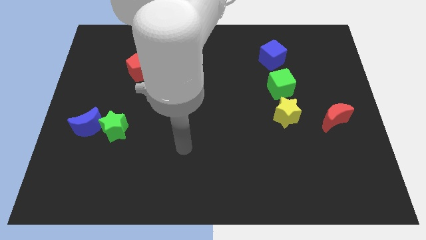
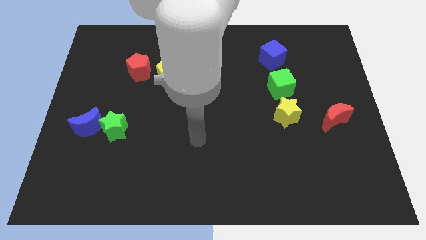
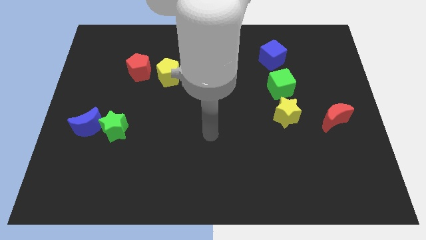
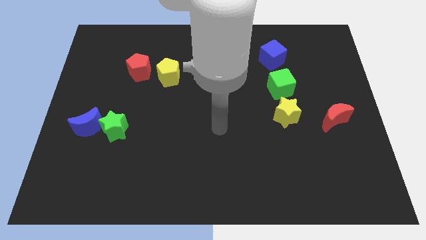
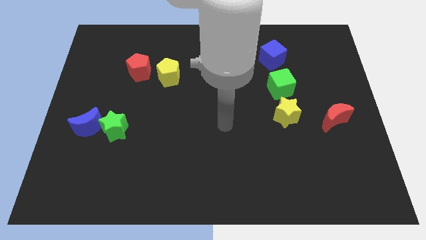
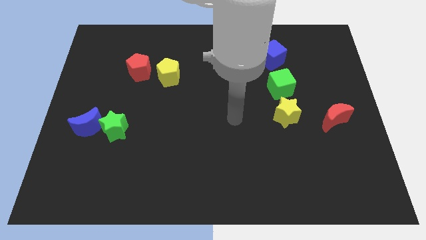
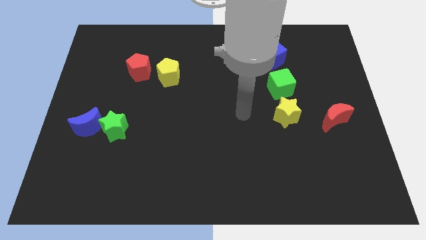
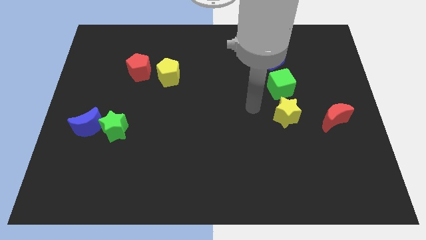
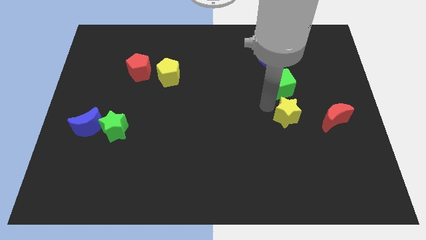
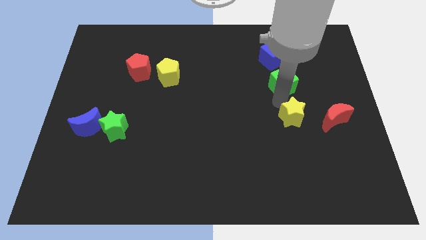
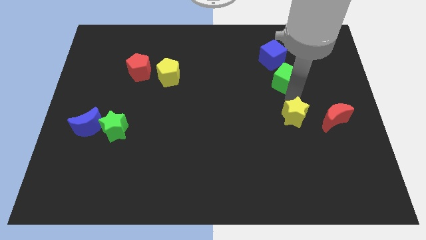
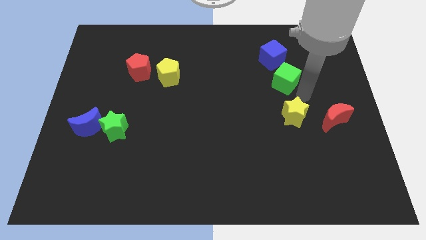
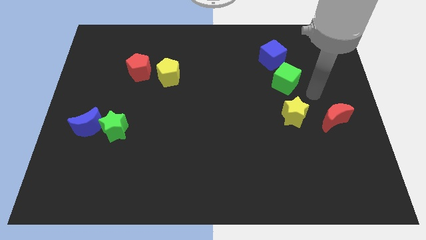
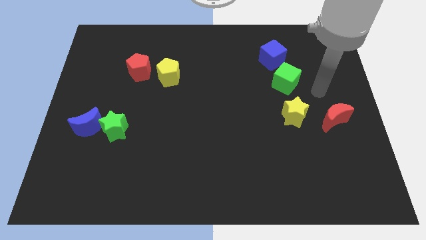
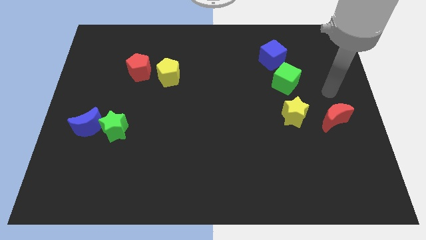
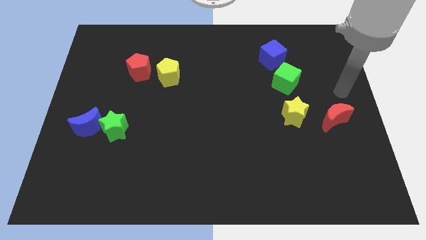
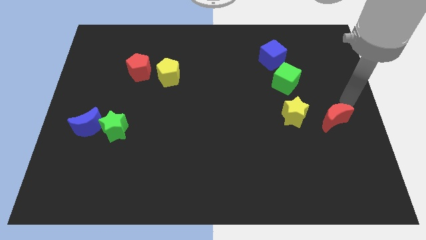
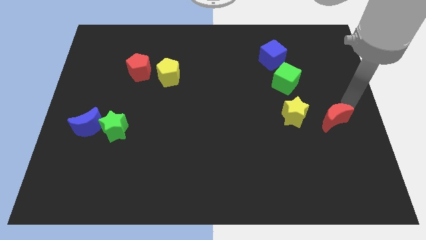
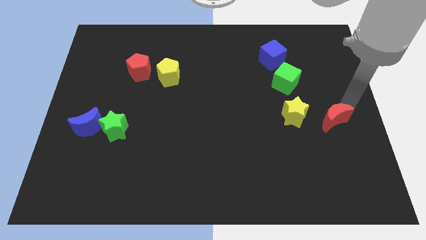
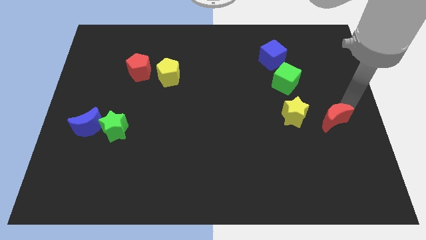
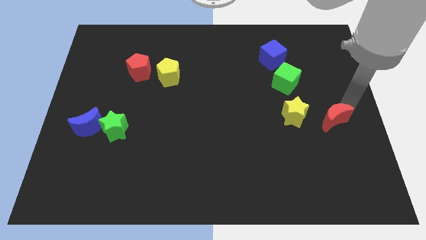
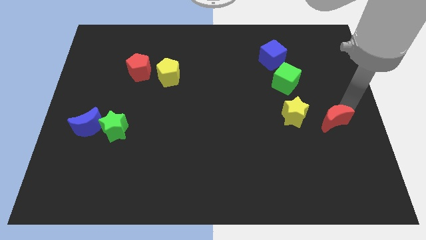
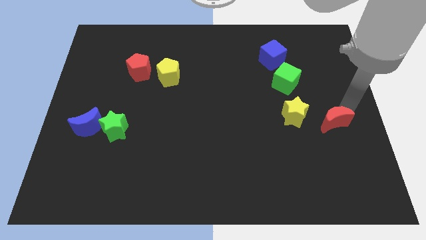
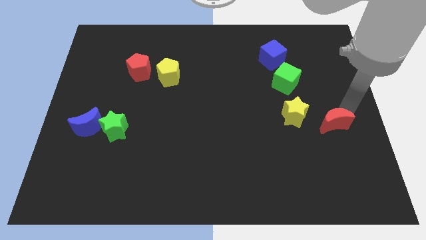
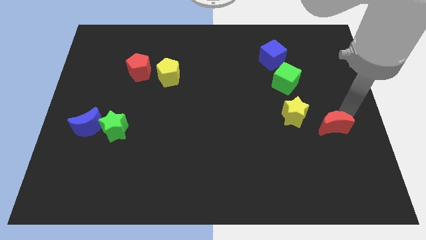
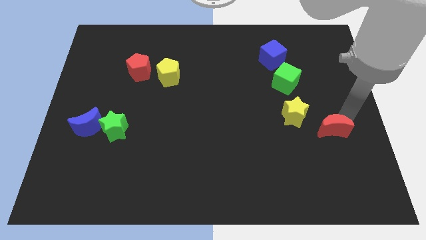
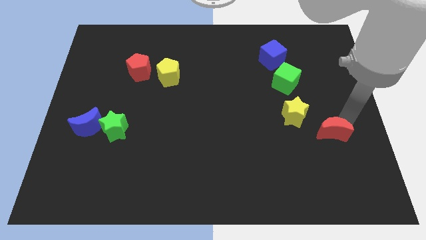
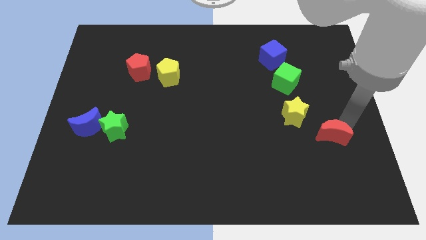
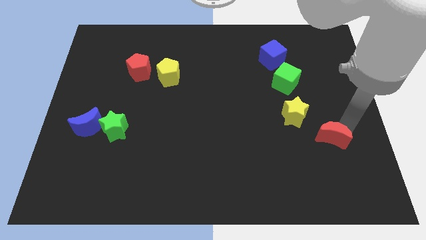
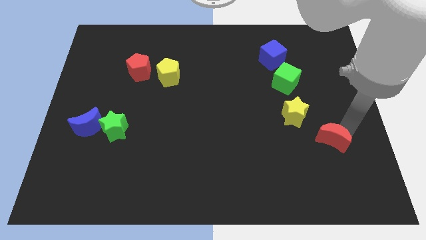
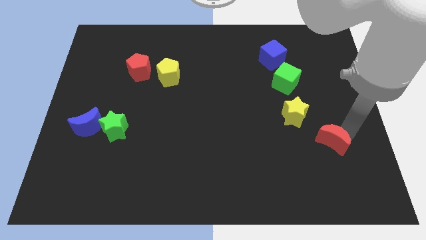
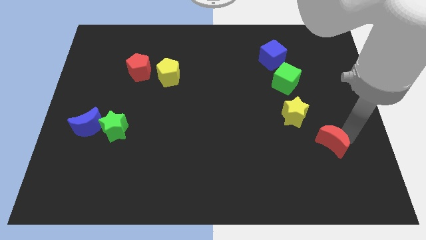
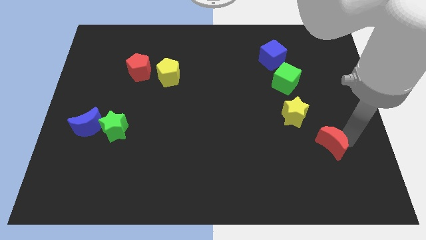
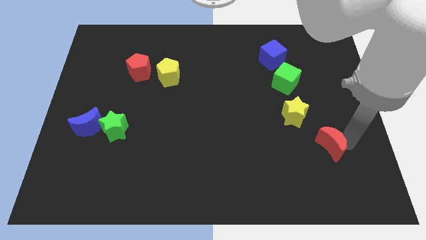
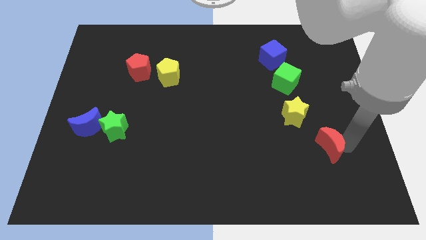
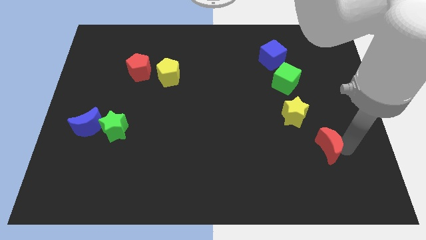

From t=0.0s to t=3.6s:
slightly push the red moon downwards and to the left

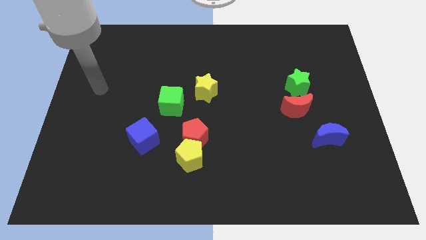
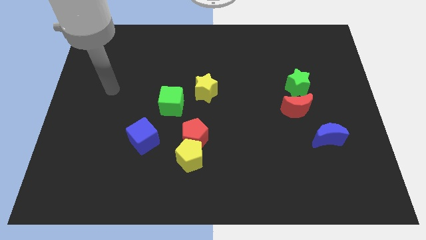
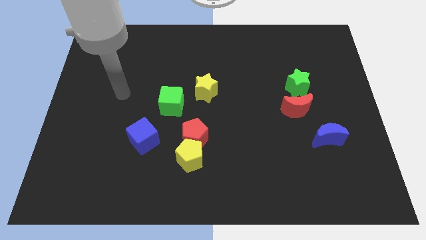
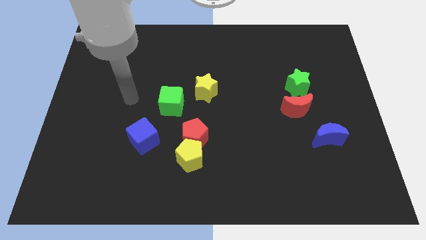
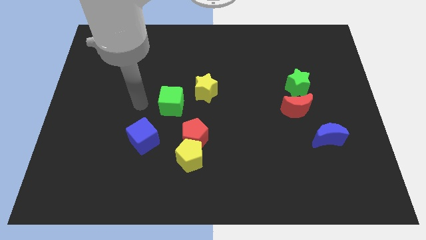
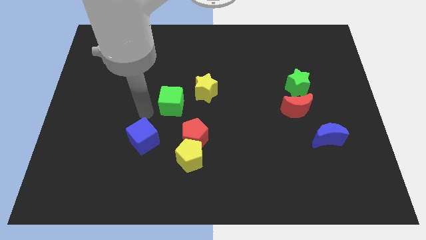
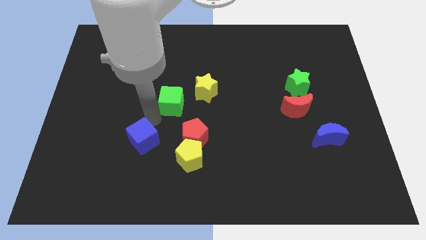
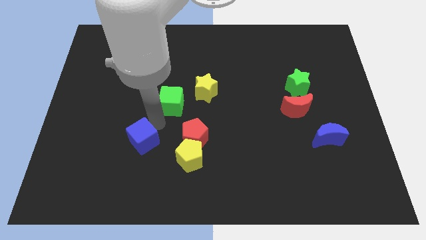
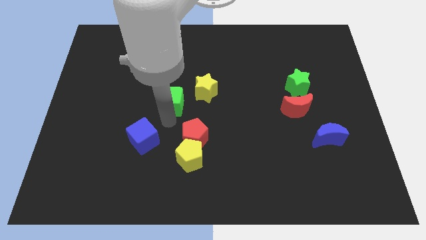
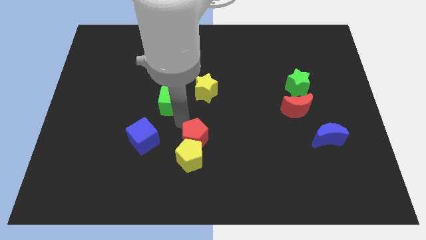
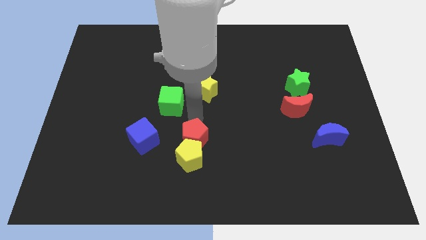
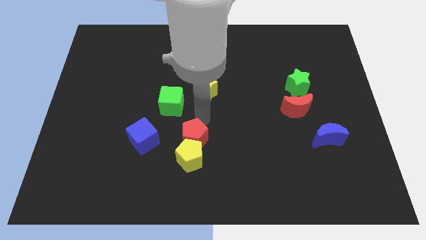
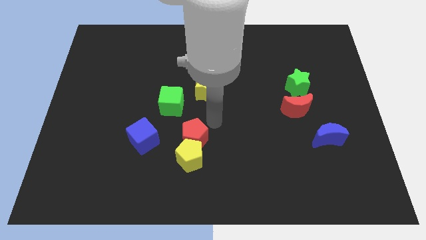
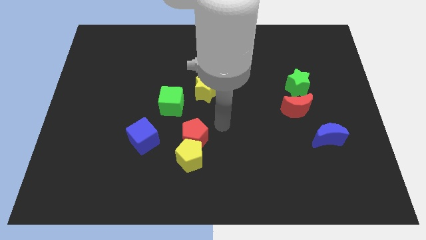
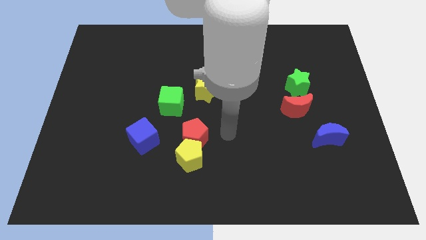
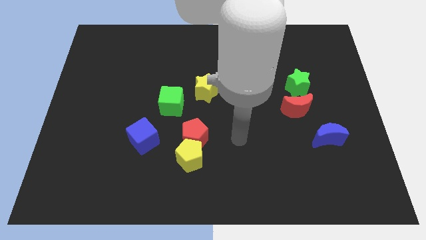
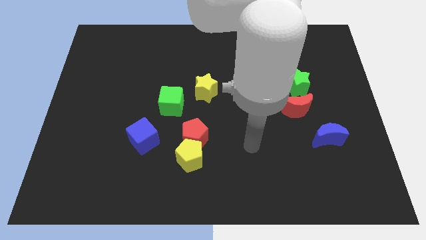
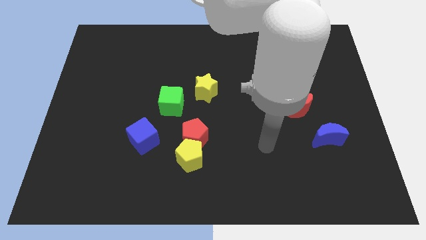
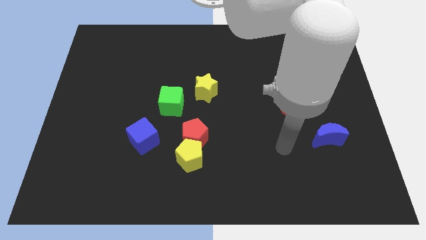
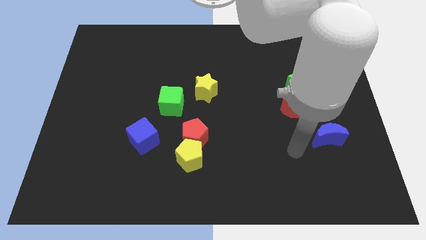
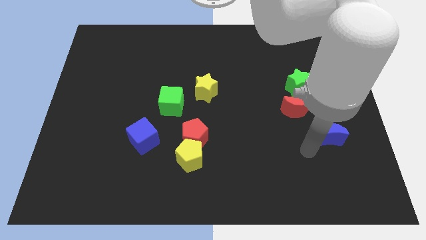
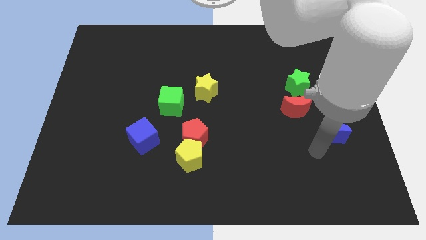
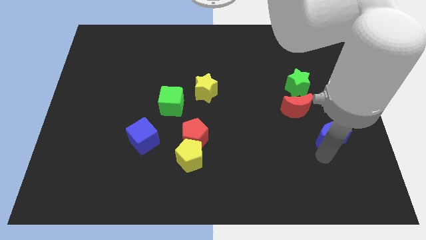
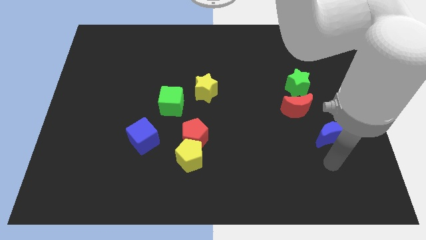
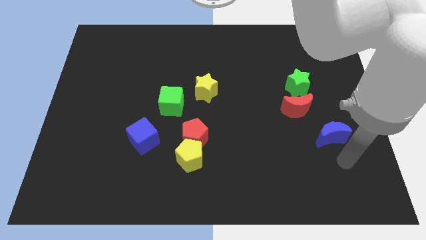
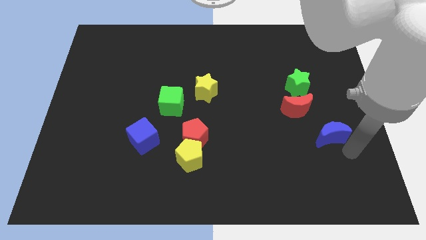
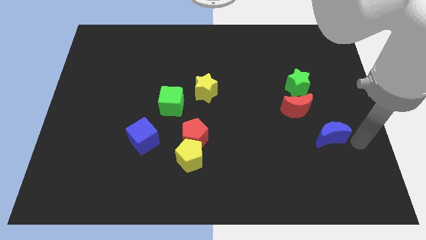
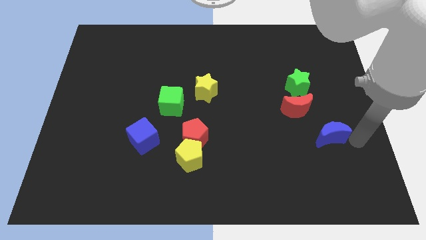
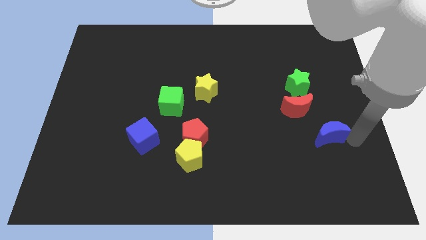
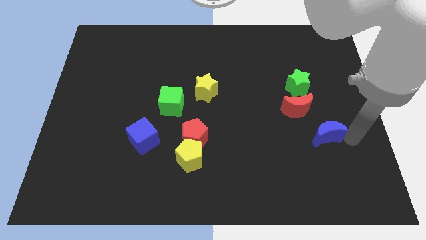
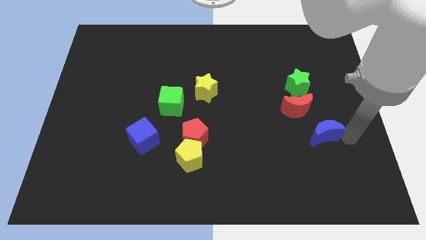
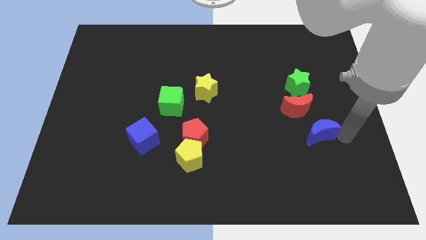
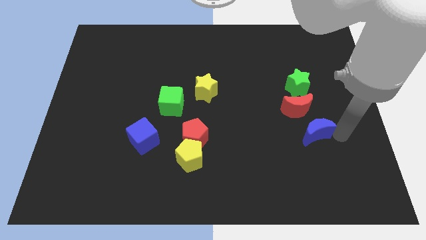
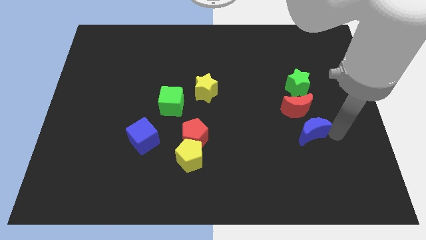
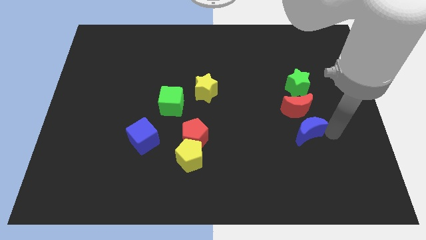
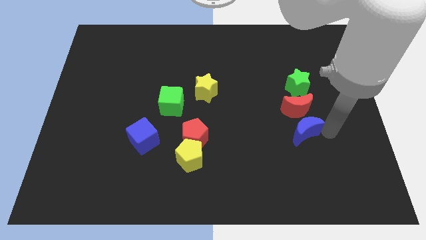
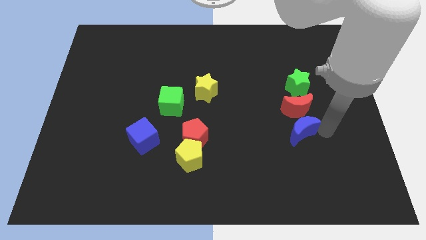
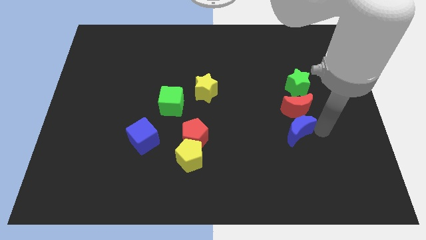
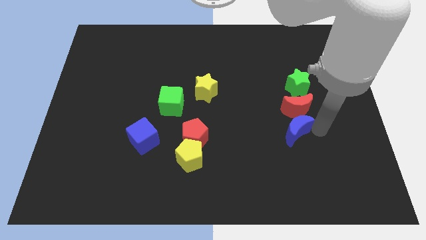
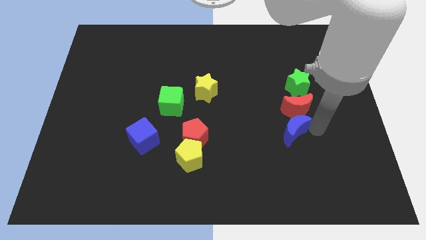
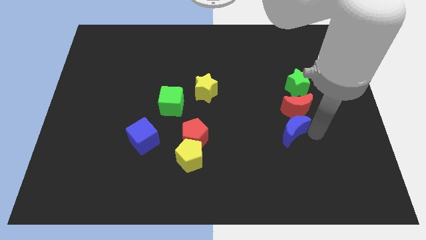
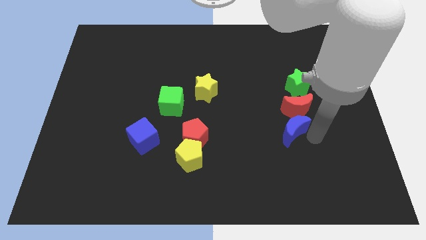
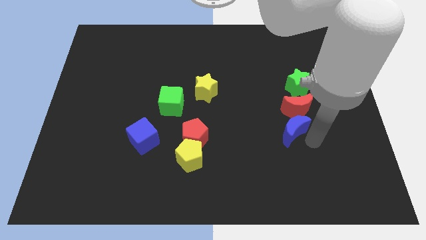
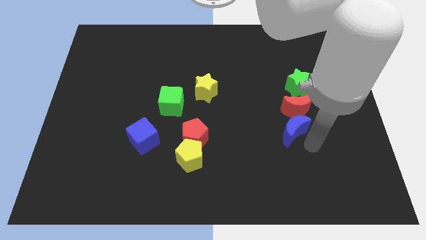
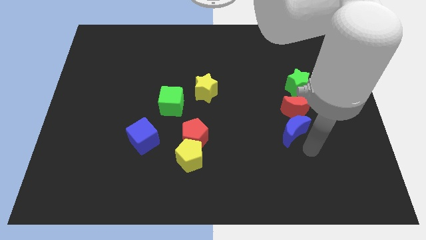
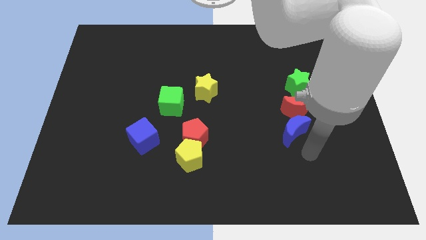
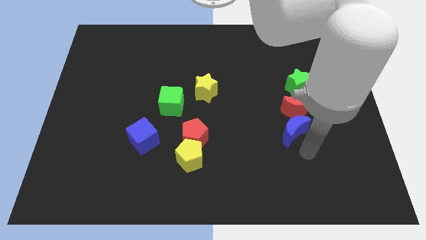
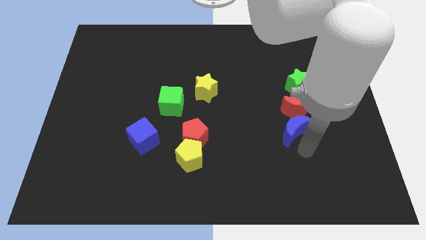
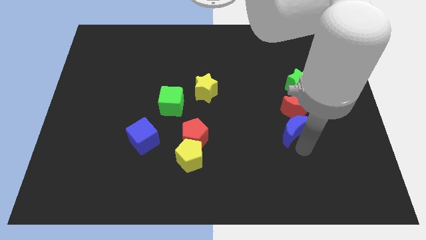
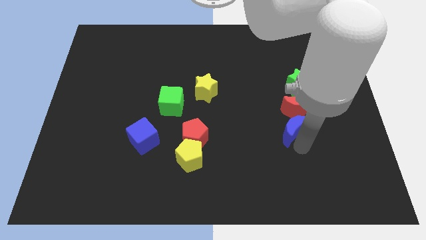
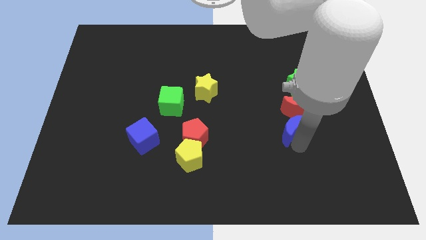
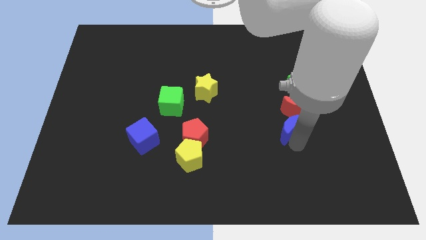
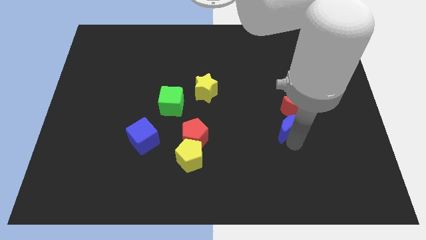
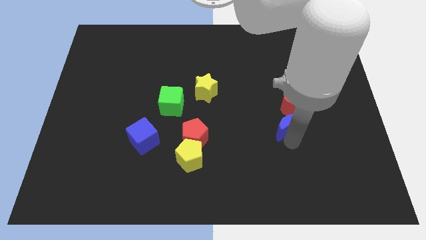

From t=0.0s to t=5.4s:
slide the blue moon upwards and then left slightly
